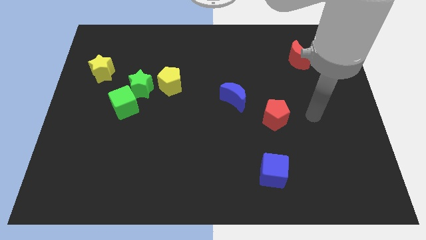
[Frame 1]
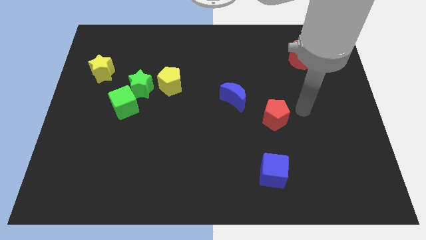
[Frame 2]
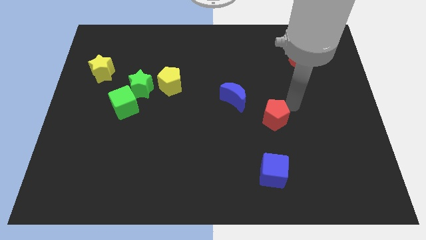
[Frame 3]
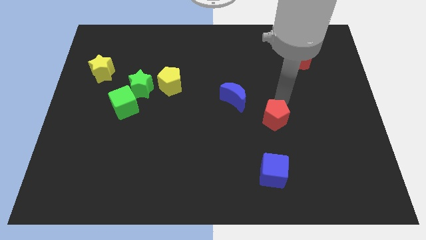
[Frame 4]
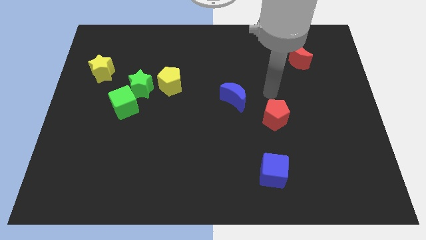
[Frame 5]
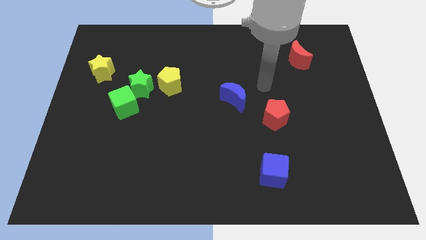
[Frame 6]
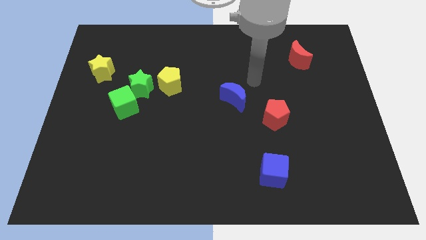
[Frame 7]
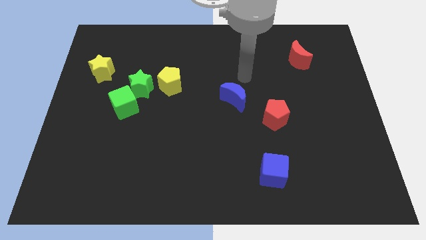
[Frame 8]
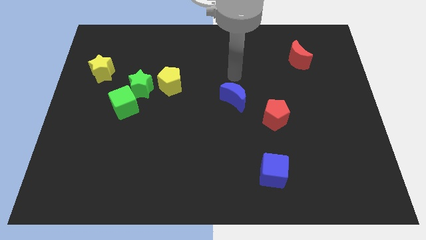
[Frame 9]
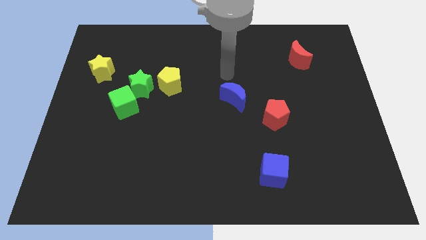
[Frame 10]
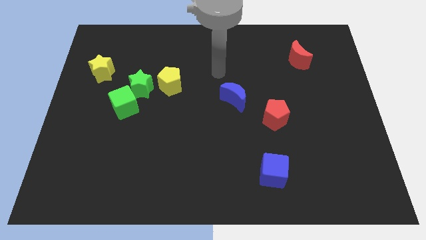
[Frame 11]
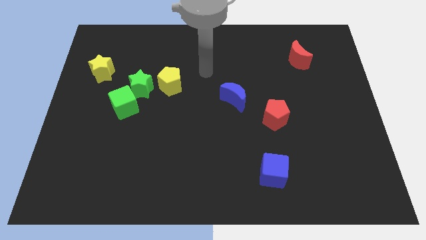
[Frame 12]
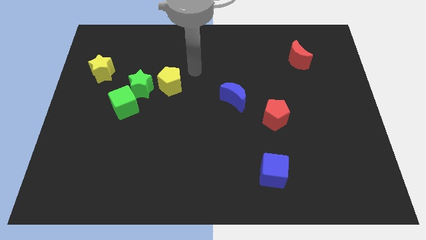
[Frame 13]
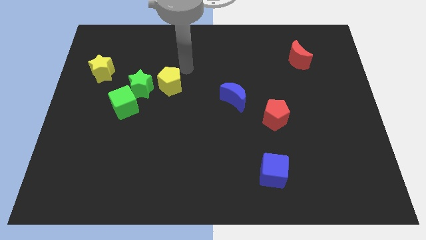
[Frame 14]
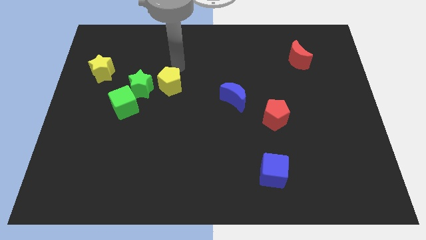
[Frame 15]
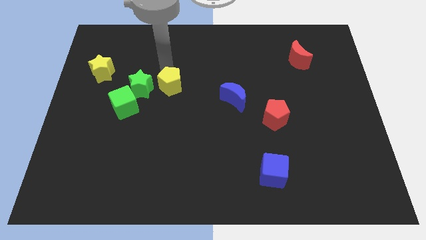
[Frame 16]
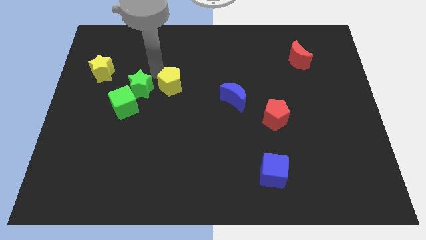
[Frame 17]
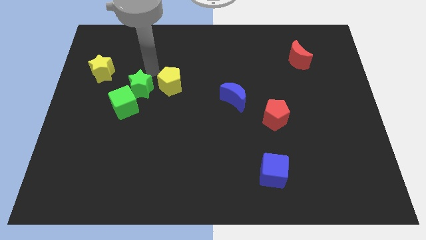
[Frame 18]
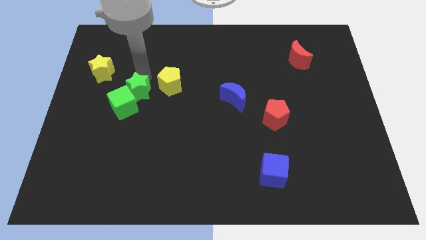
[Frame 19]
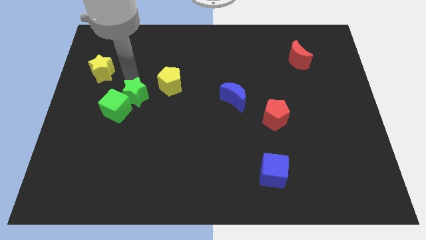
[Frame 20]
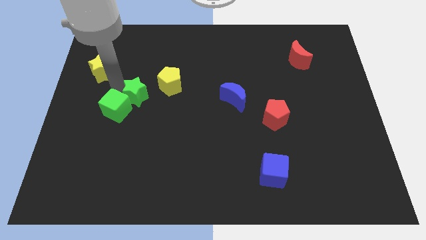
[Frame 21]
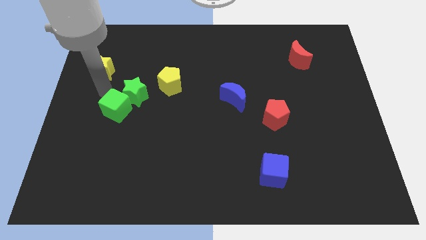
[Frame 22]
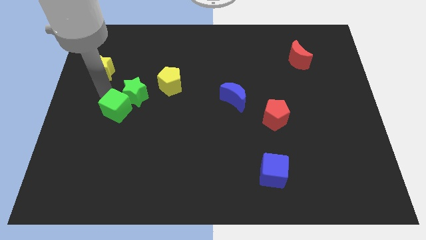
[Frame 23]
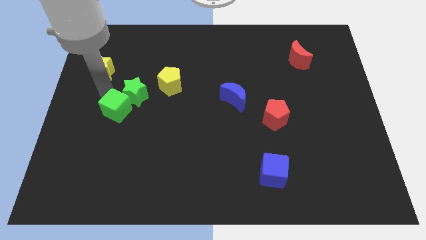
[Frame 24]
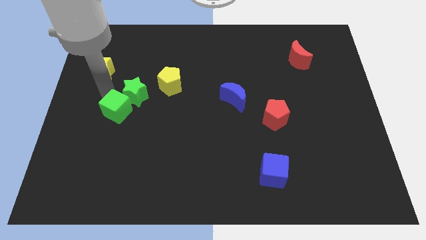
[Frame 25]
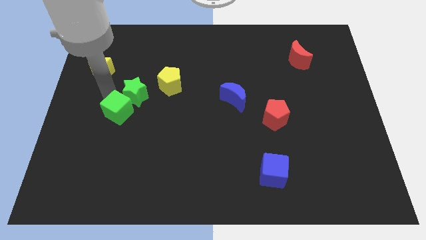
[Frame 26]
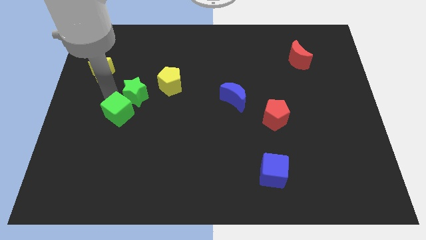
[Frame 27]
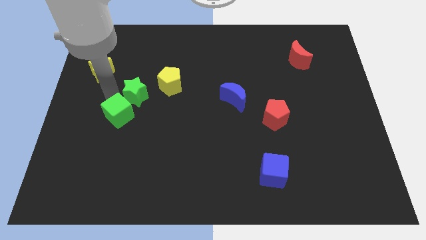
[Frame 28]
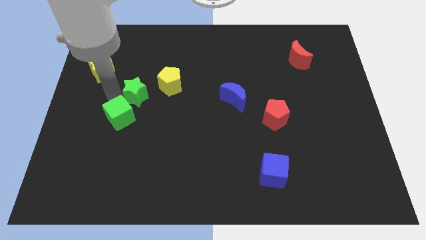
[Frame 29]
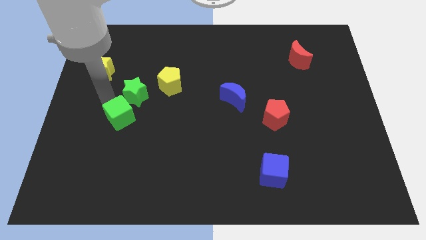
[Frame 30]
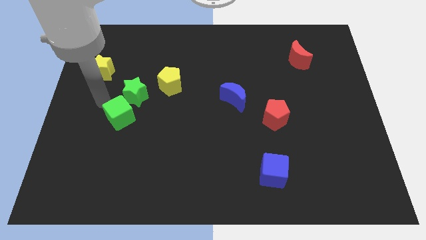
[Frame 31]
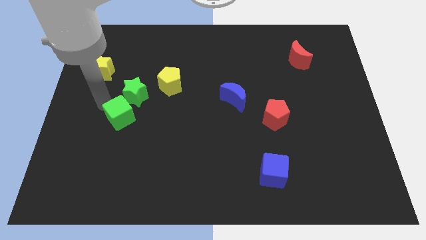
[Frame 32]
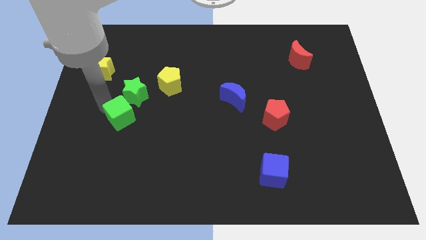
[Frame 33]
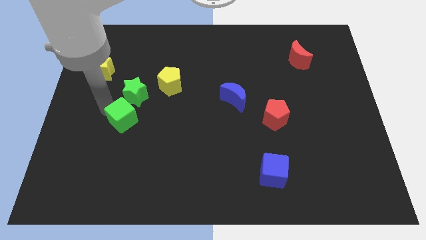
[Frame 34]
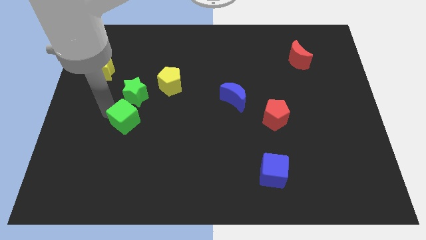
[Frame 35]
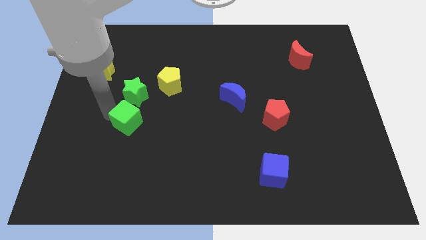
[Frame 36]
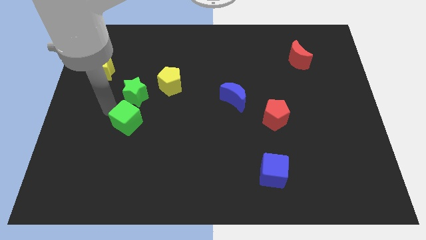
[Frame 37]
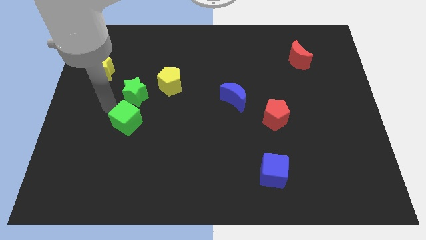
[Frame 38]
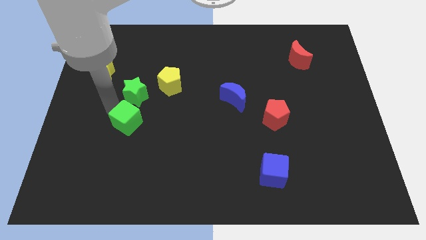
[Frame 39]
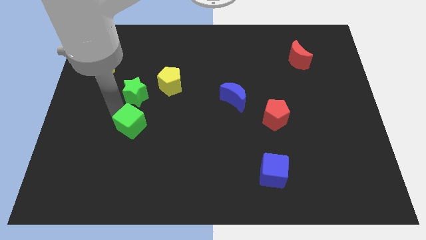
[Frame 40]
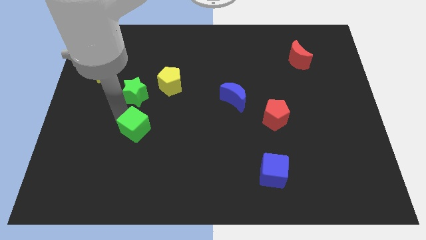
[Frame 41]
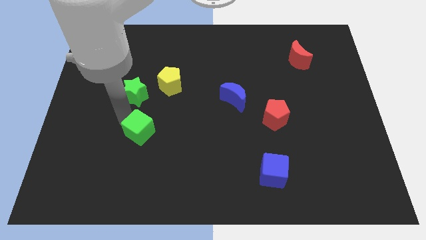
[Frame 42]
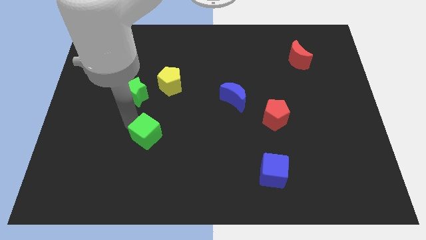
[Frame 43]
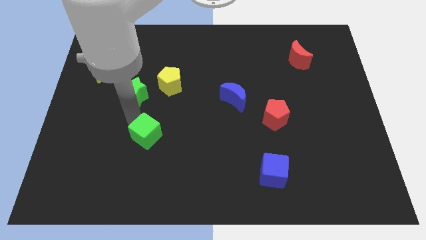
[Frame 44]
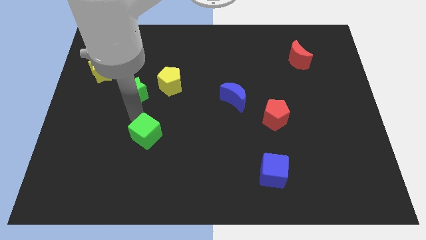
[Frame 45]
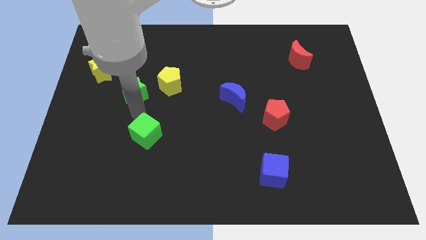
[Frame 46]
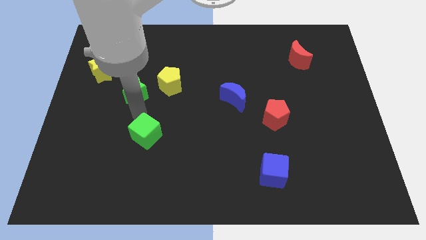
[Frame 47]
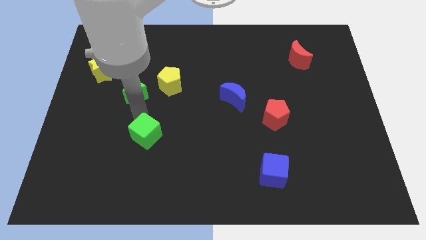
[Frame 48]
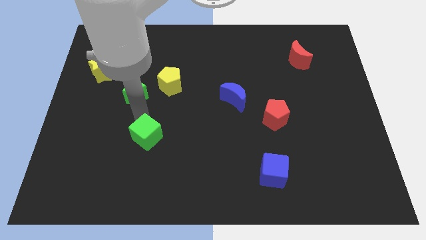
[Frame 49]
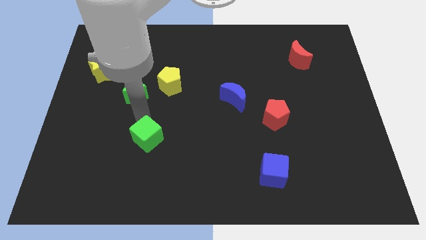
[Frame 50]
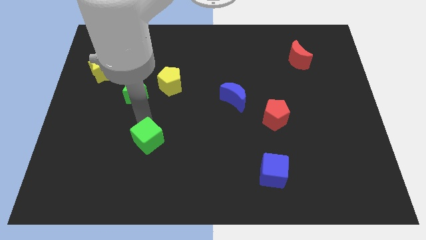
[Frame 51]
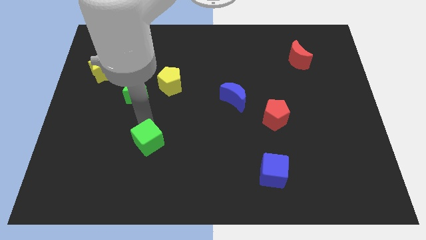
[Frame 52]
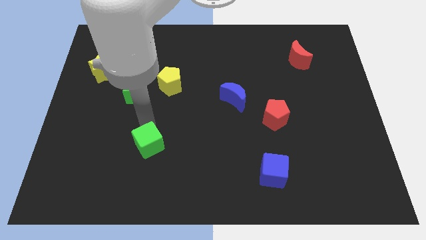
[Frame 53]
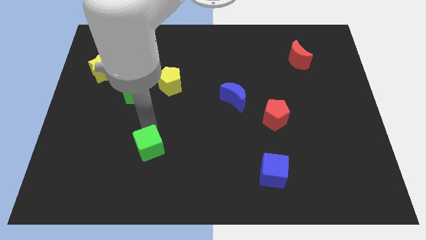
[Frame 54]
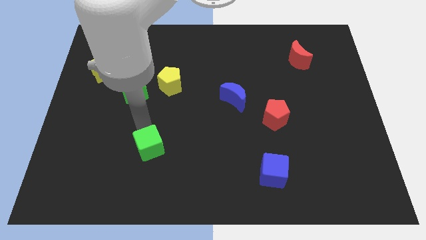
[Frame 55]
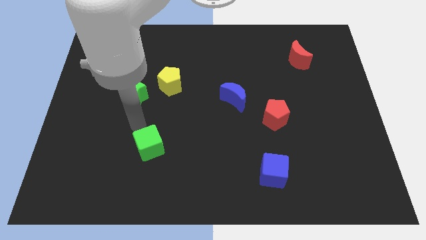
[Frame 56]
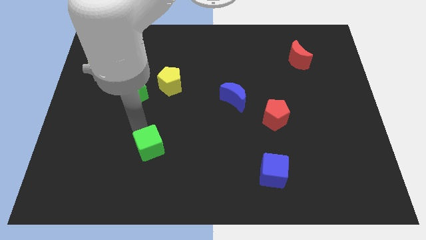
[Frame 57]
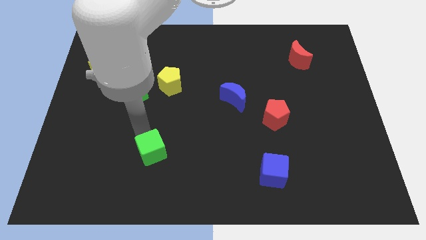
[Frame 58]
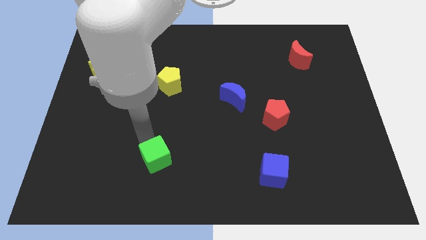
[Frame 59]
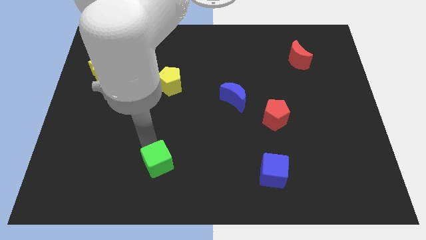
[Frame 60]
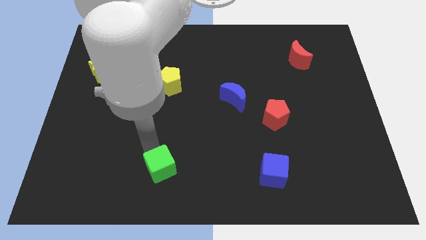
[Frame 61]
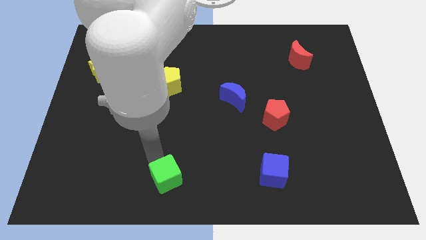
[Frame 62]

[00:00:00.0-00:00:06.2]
slide the green cube to the bottom
